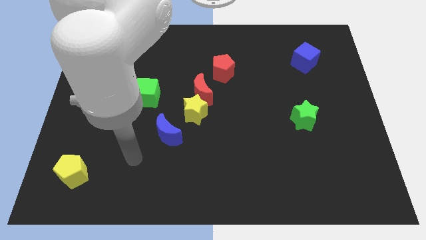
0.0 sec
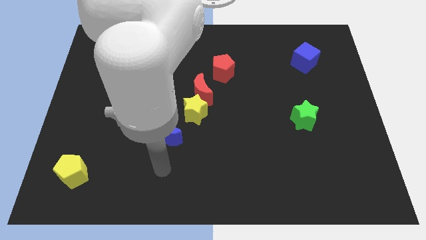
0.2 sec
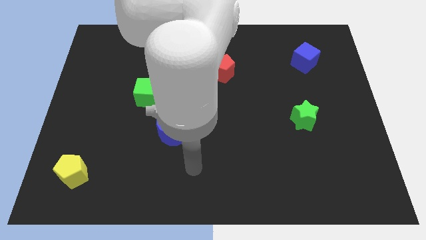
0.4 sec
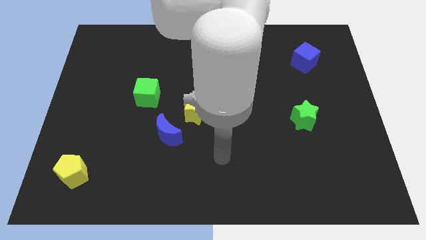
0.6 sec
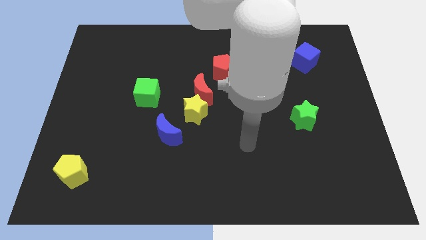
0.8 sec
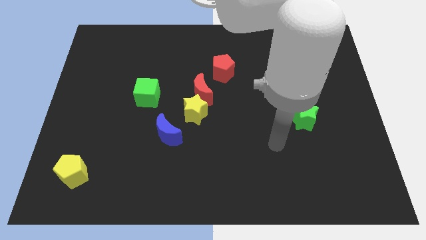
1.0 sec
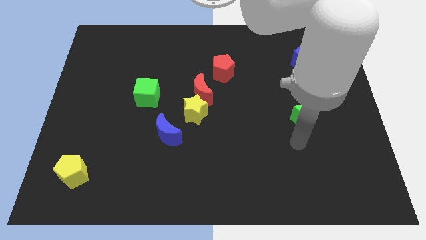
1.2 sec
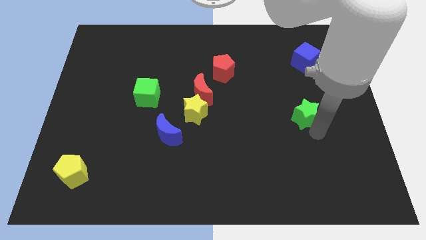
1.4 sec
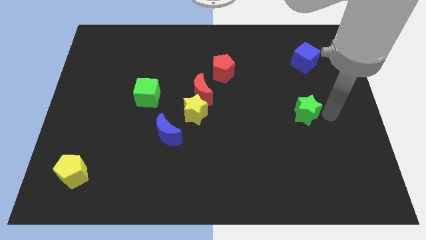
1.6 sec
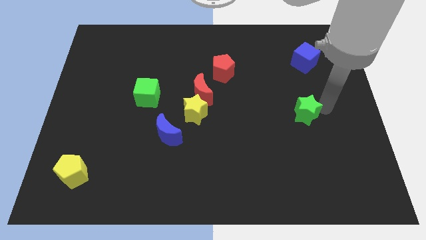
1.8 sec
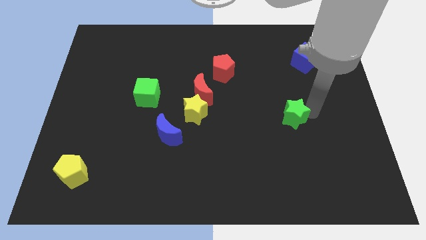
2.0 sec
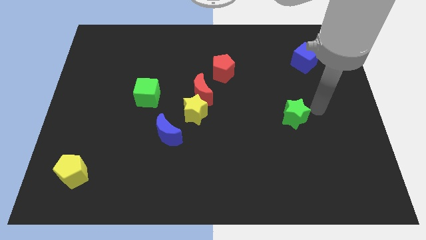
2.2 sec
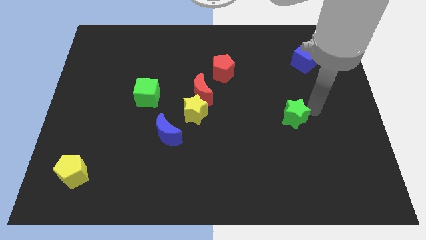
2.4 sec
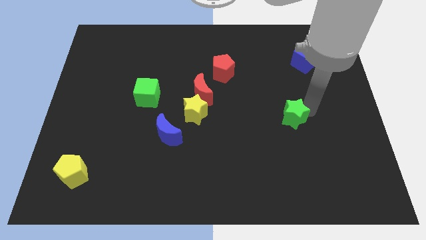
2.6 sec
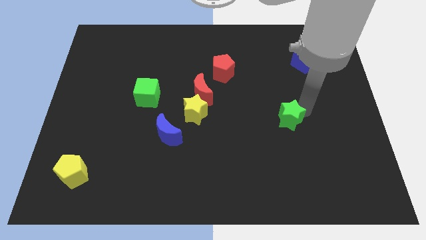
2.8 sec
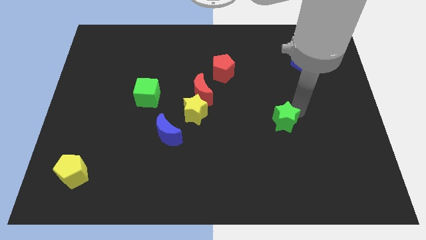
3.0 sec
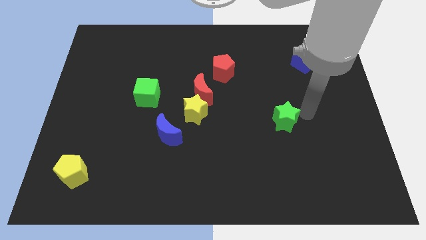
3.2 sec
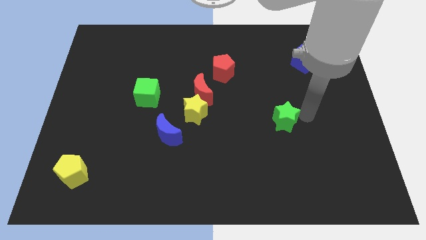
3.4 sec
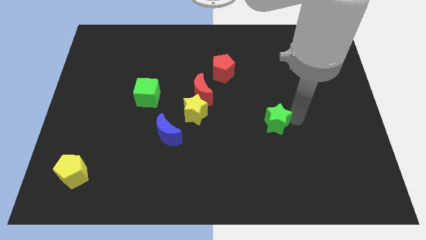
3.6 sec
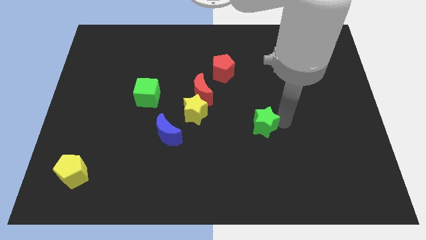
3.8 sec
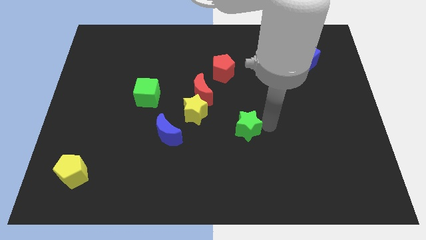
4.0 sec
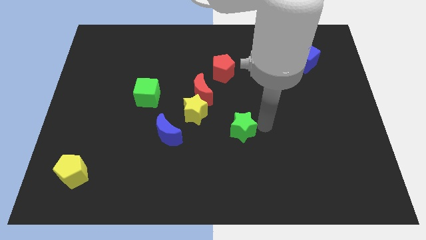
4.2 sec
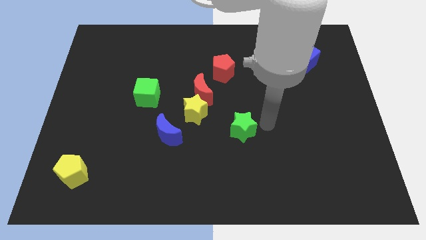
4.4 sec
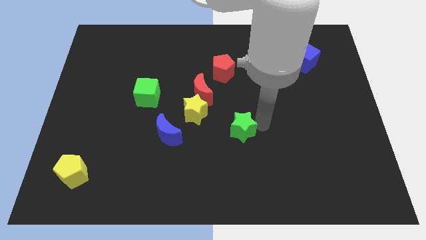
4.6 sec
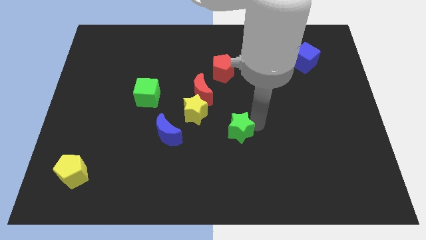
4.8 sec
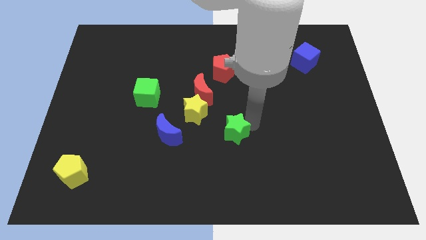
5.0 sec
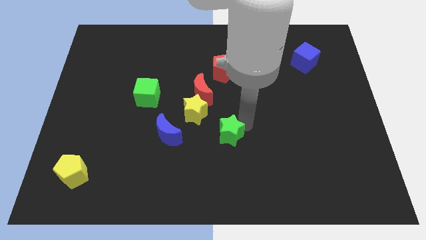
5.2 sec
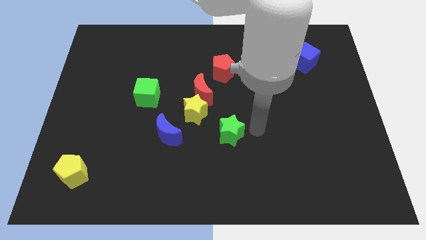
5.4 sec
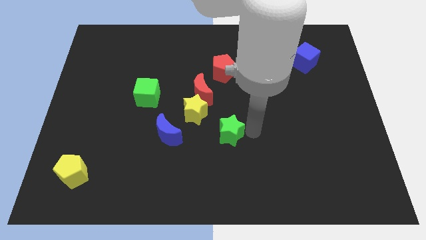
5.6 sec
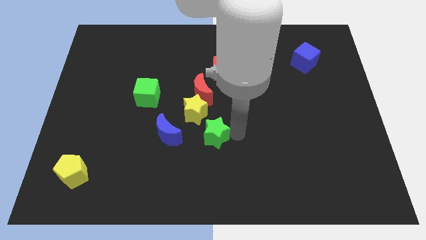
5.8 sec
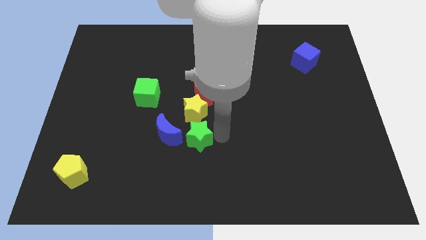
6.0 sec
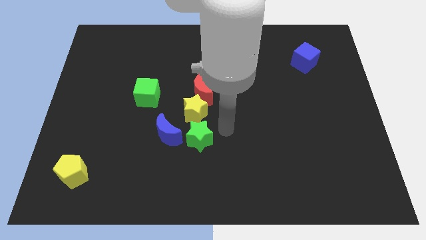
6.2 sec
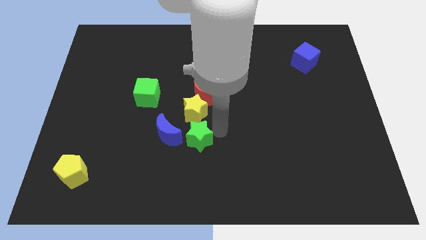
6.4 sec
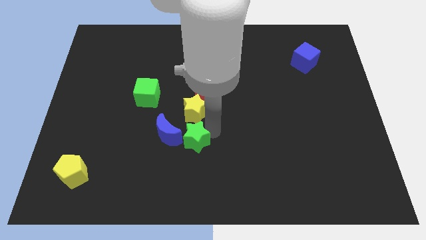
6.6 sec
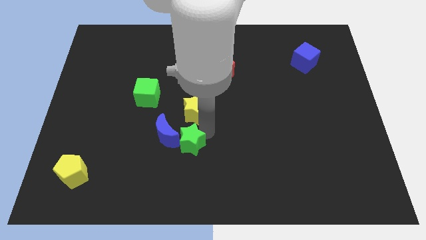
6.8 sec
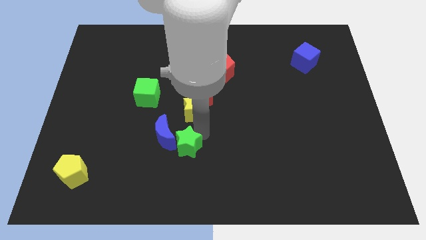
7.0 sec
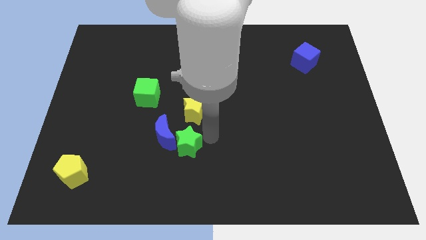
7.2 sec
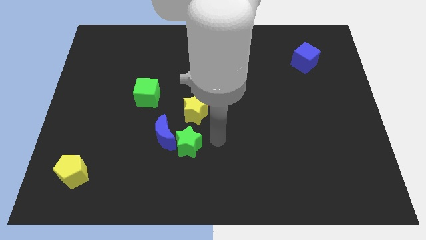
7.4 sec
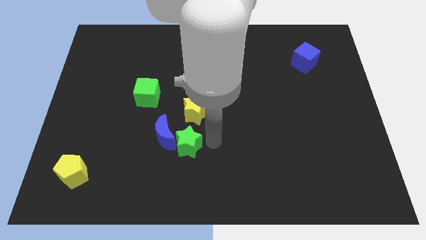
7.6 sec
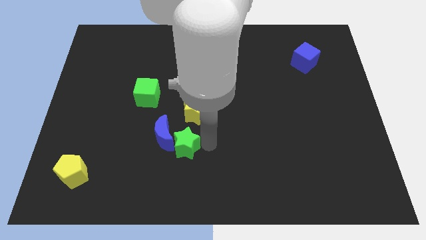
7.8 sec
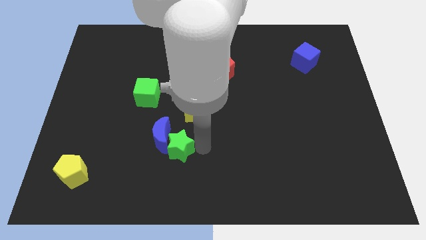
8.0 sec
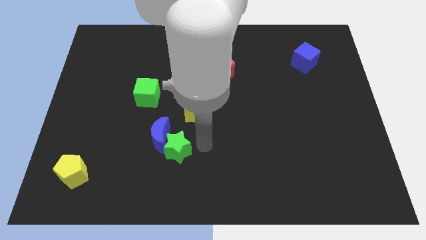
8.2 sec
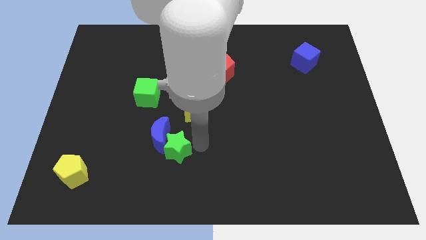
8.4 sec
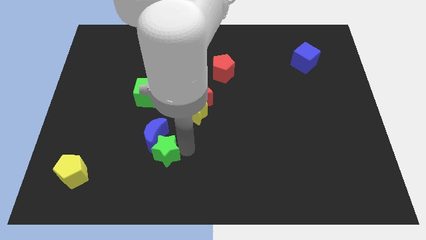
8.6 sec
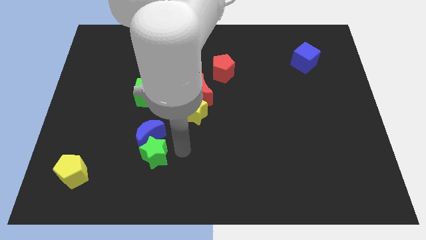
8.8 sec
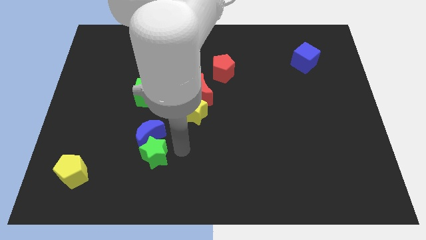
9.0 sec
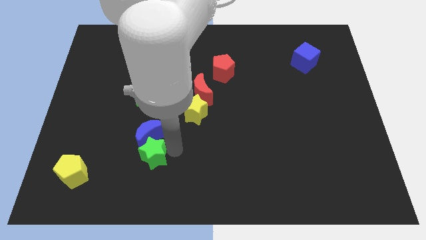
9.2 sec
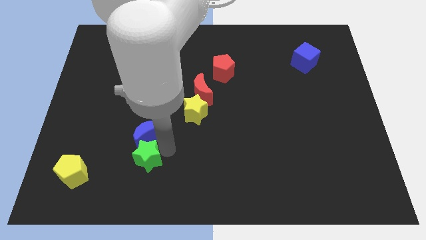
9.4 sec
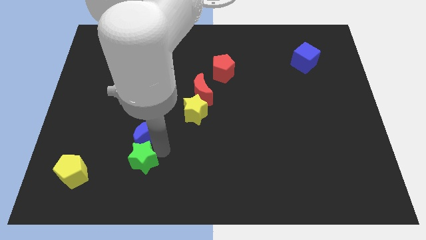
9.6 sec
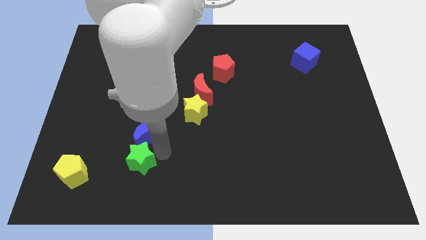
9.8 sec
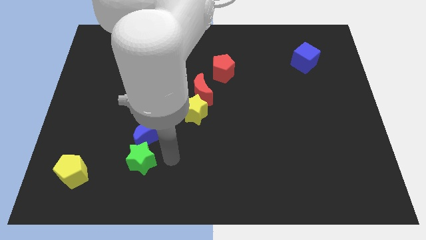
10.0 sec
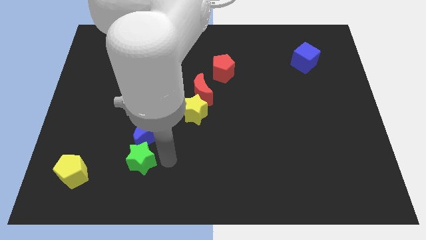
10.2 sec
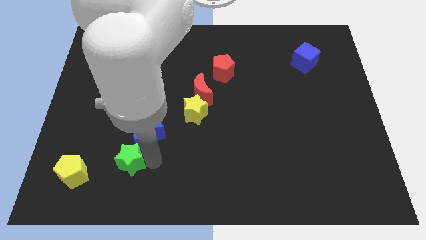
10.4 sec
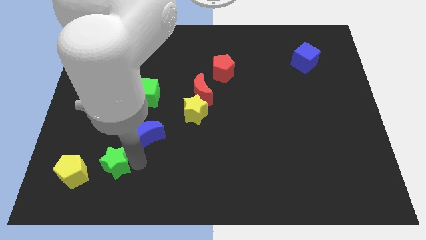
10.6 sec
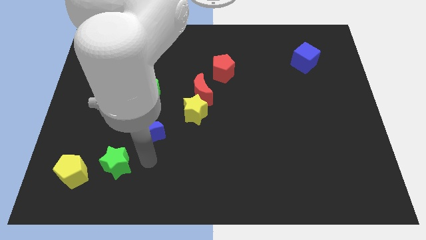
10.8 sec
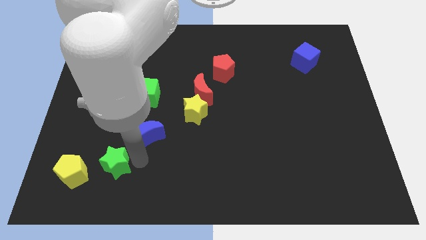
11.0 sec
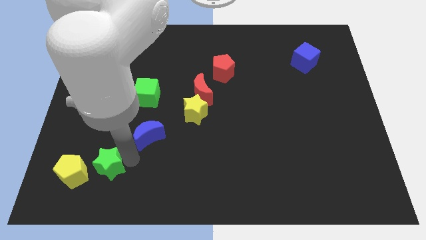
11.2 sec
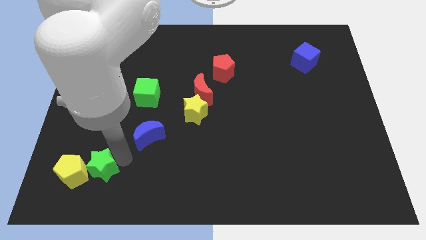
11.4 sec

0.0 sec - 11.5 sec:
put the green star next to the yellow pentagon

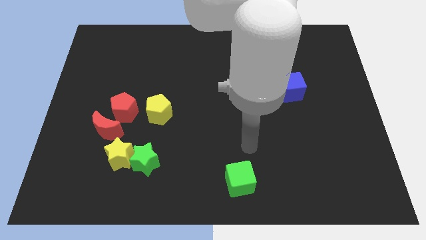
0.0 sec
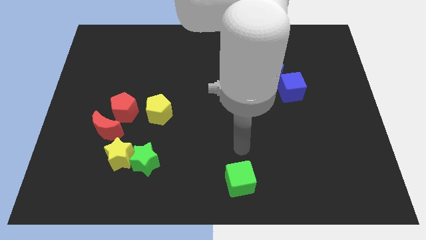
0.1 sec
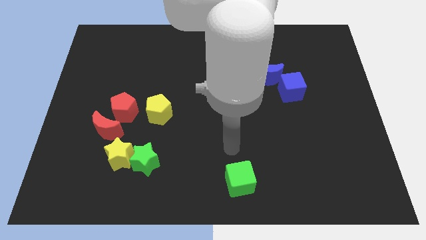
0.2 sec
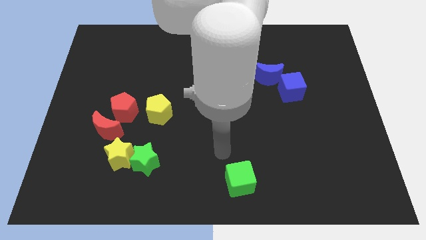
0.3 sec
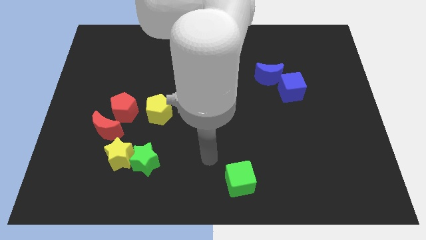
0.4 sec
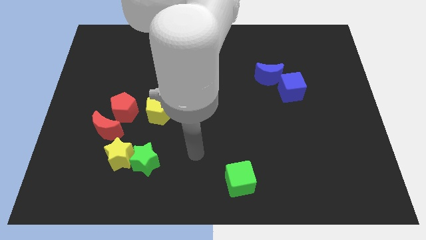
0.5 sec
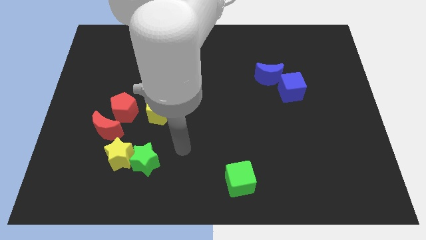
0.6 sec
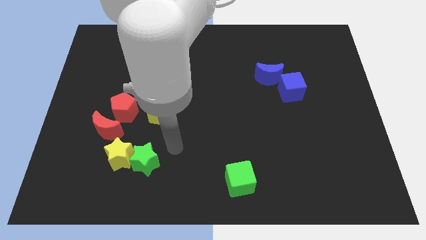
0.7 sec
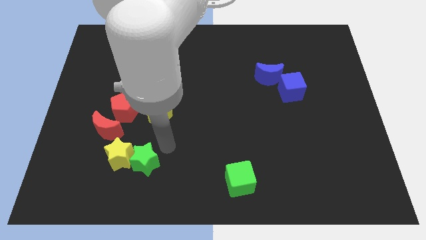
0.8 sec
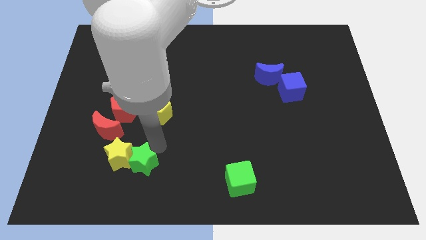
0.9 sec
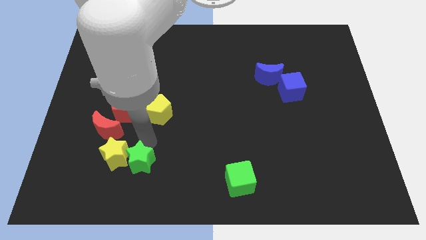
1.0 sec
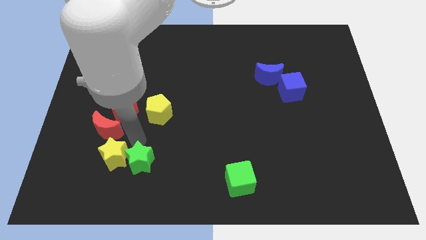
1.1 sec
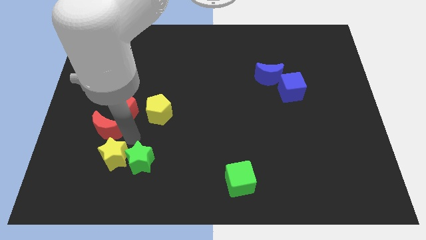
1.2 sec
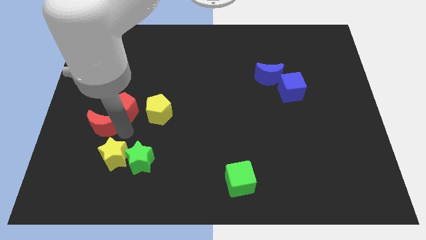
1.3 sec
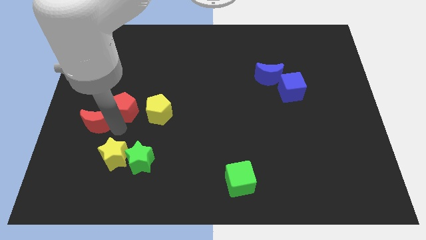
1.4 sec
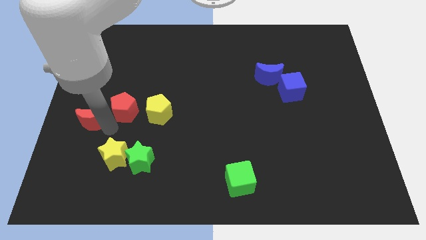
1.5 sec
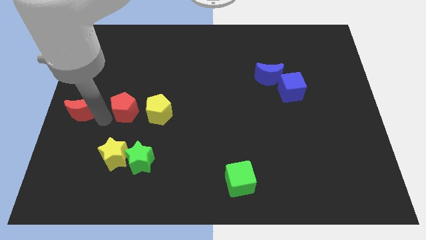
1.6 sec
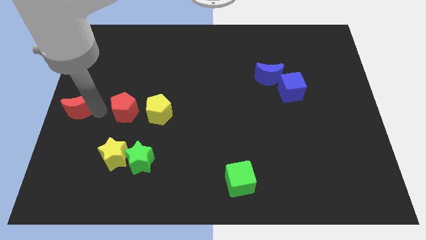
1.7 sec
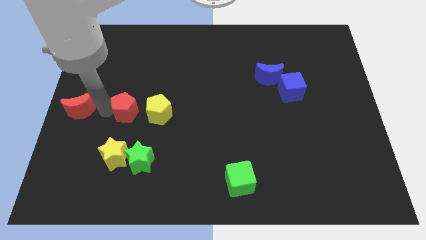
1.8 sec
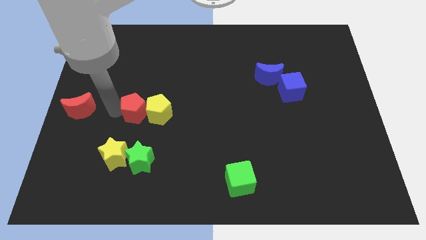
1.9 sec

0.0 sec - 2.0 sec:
push the red pentagon to the yellow pentagon
